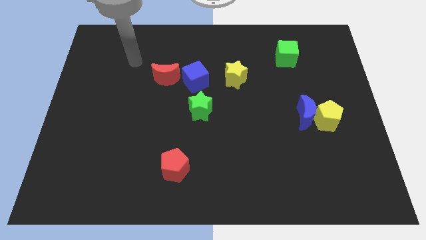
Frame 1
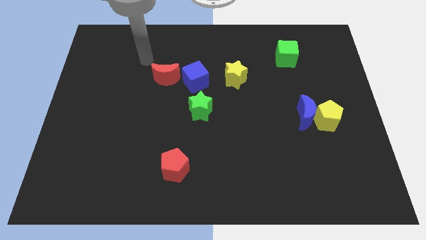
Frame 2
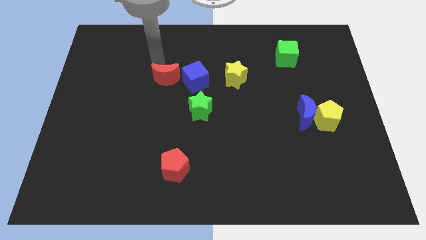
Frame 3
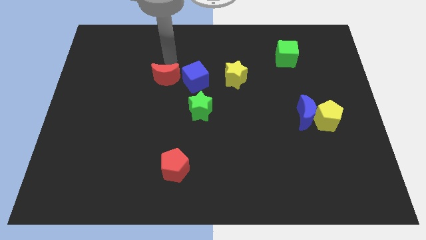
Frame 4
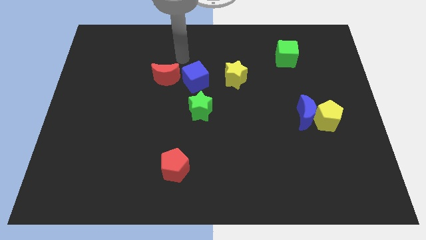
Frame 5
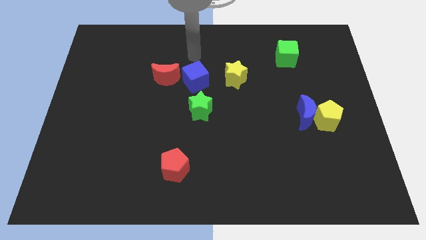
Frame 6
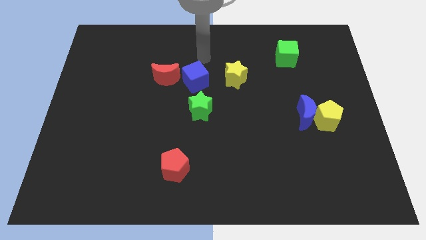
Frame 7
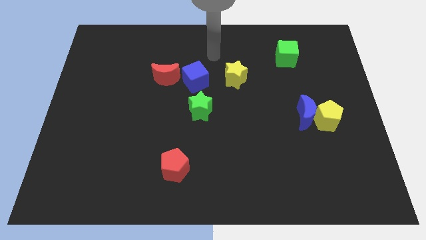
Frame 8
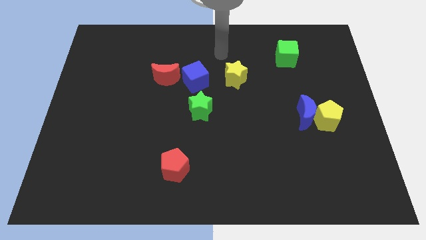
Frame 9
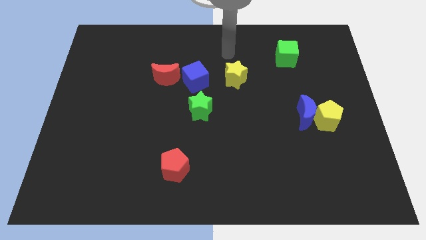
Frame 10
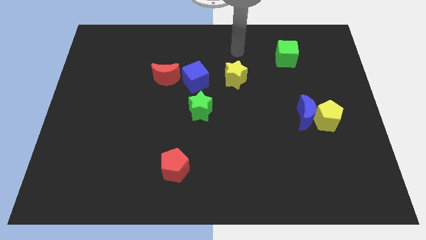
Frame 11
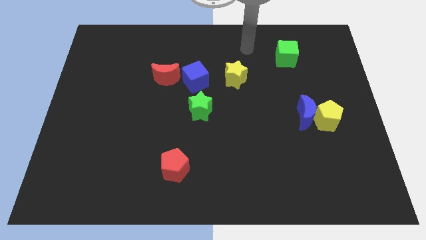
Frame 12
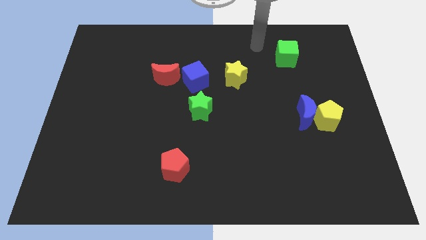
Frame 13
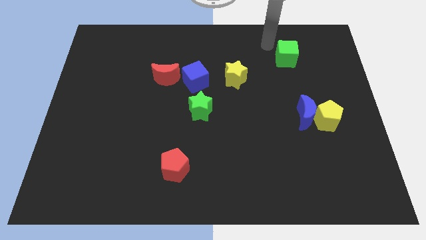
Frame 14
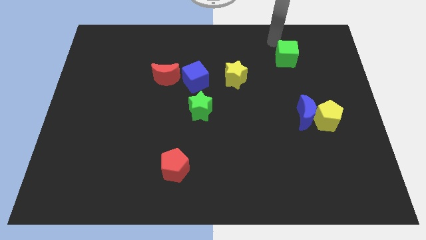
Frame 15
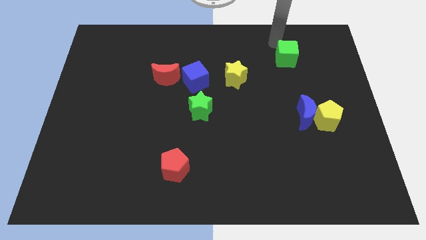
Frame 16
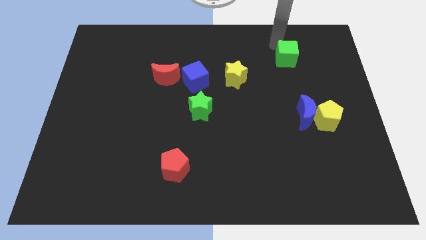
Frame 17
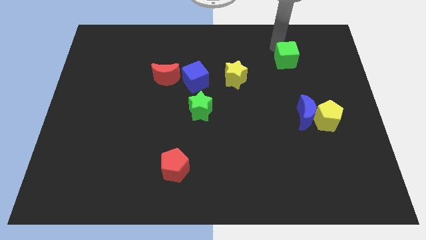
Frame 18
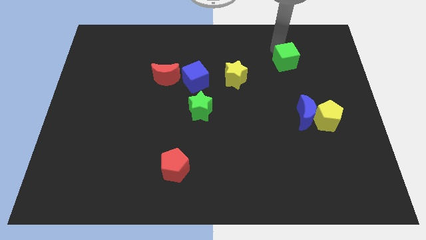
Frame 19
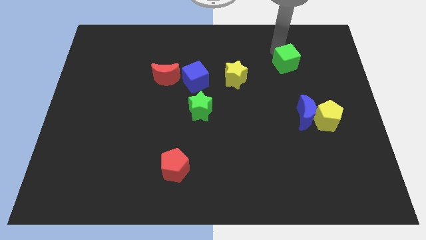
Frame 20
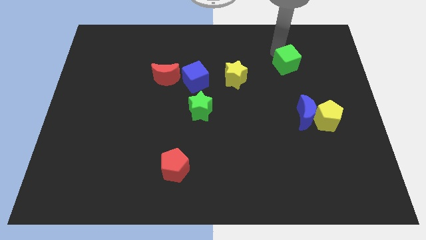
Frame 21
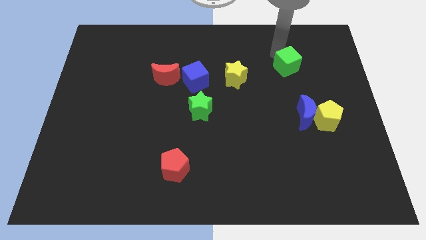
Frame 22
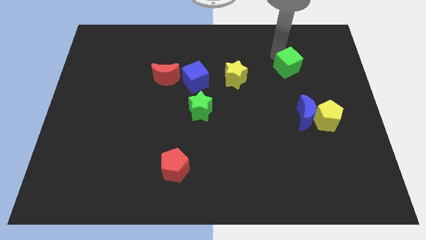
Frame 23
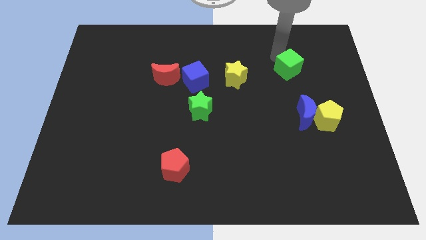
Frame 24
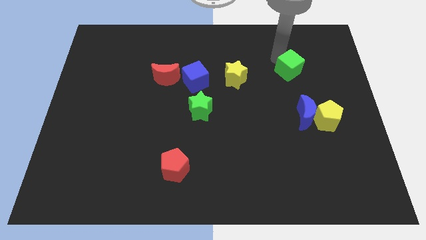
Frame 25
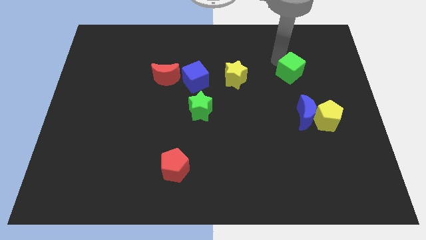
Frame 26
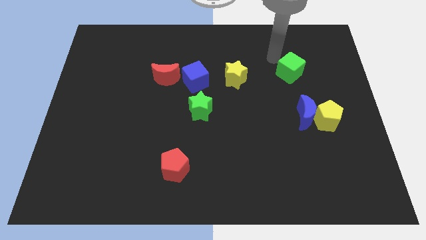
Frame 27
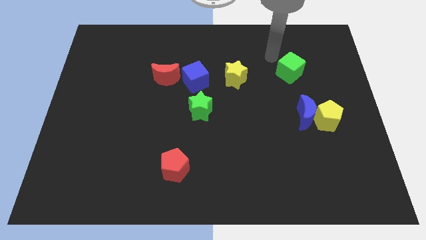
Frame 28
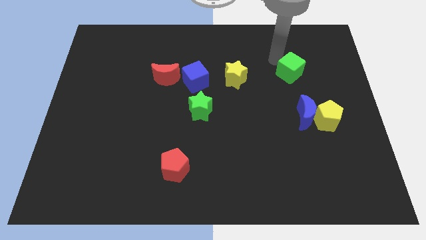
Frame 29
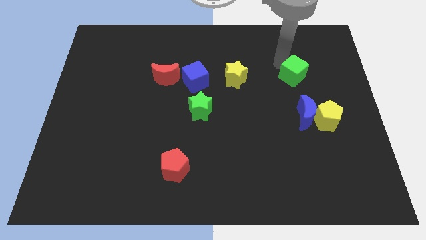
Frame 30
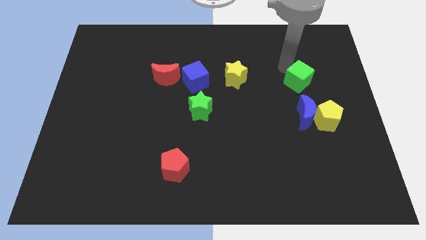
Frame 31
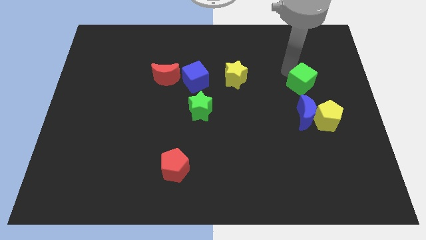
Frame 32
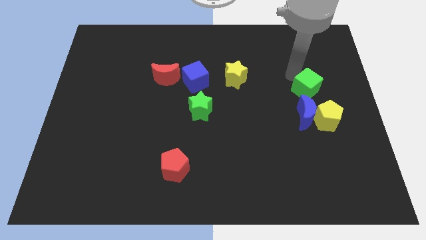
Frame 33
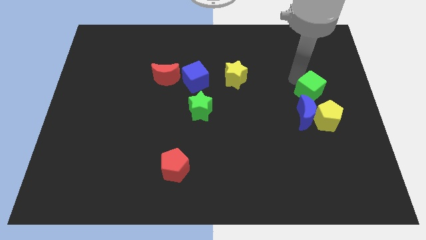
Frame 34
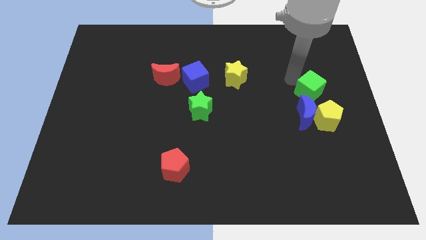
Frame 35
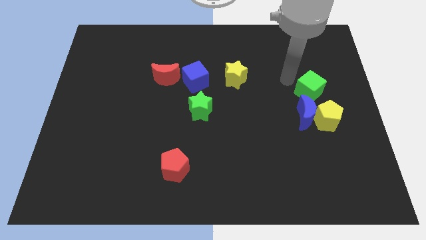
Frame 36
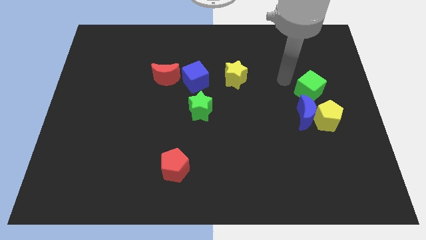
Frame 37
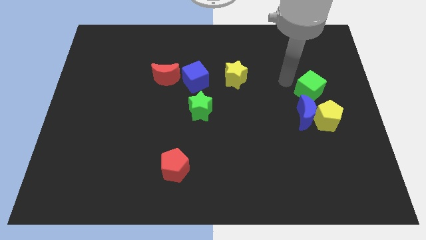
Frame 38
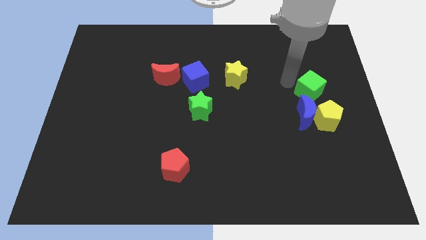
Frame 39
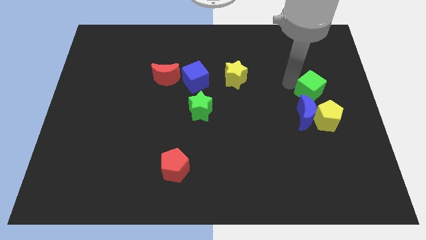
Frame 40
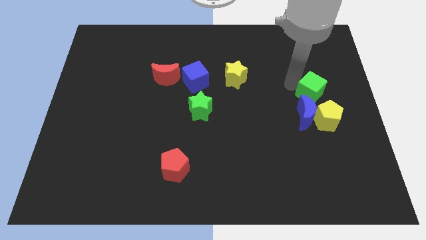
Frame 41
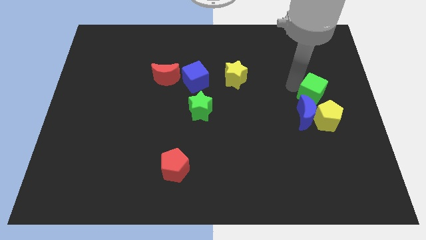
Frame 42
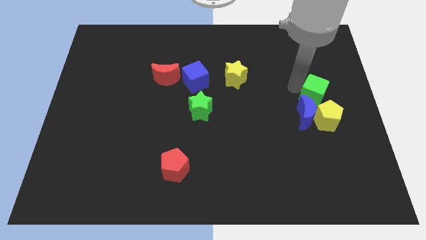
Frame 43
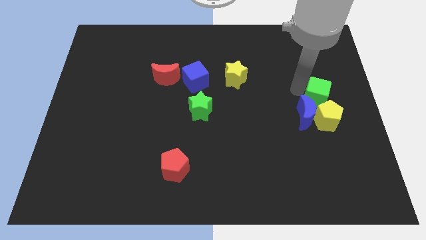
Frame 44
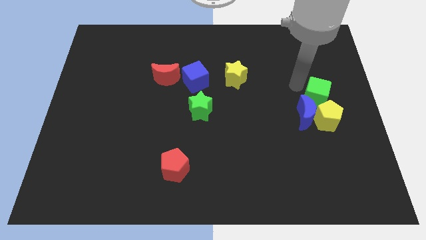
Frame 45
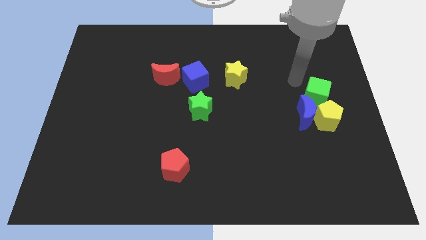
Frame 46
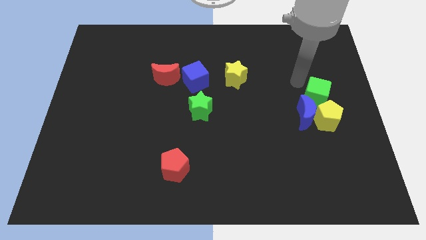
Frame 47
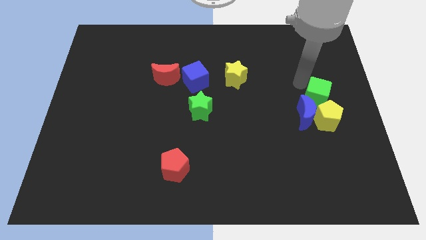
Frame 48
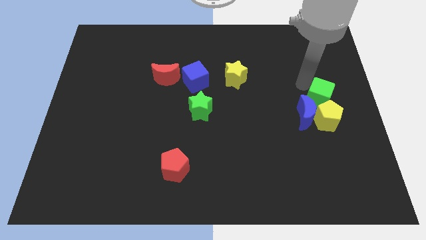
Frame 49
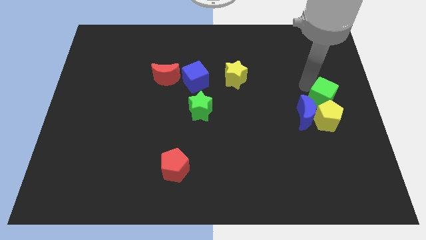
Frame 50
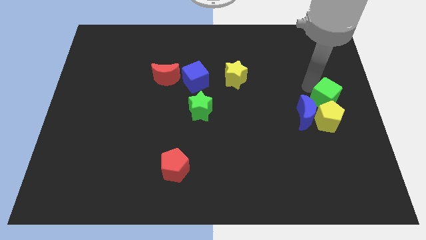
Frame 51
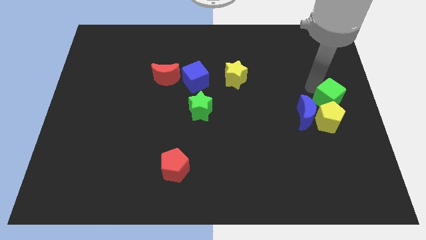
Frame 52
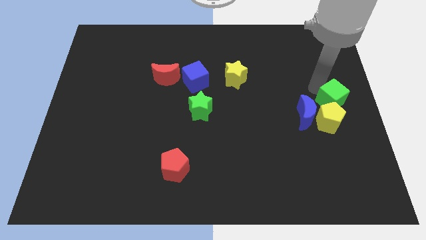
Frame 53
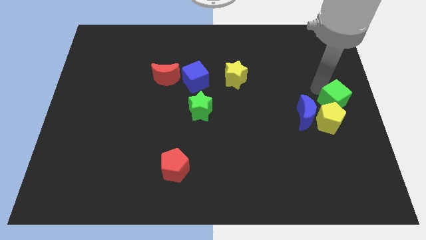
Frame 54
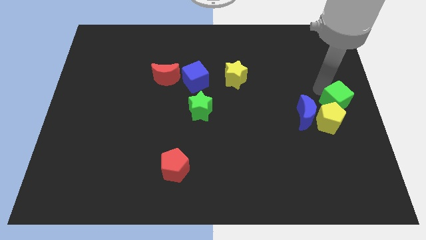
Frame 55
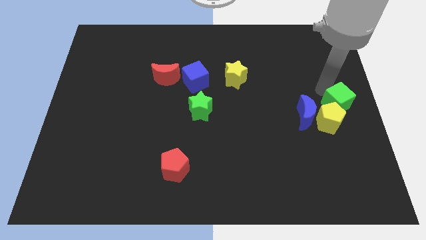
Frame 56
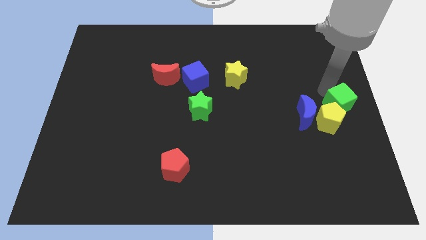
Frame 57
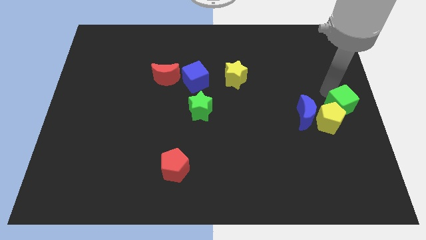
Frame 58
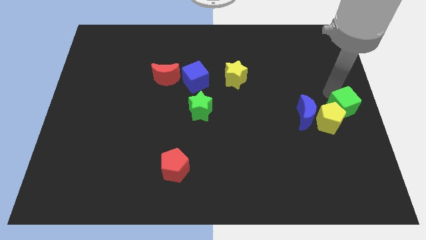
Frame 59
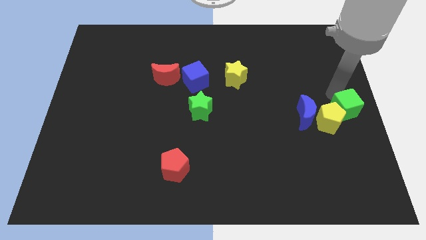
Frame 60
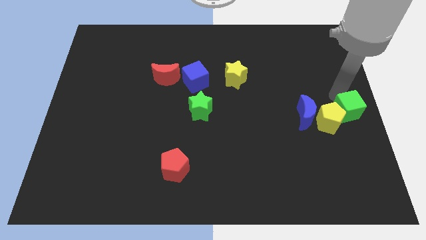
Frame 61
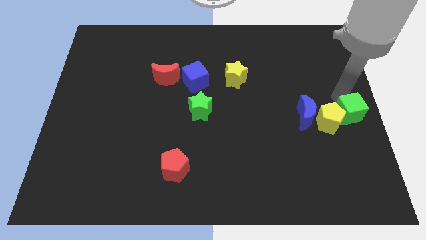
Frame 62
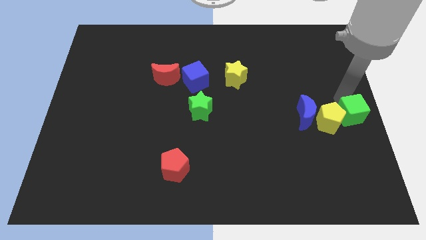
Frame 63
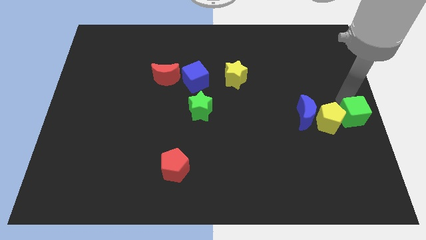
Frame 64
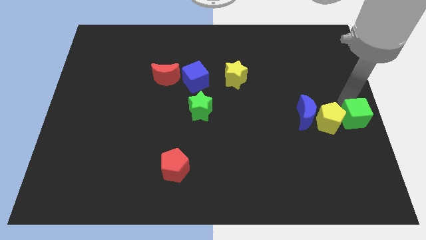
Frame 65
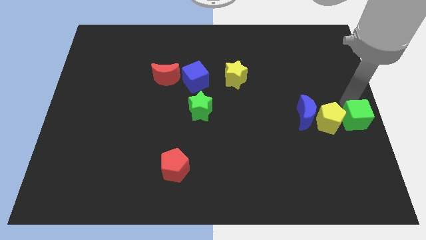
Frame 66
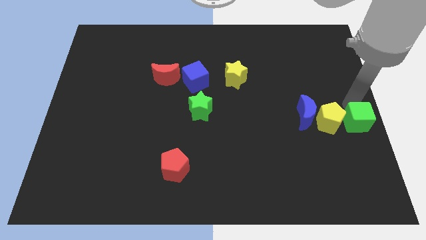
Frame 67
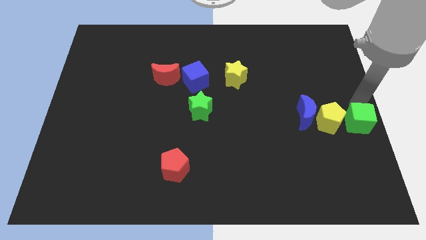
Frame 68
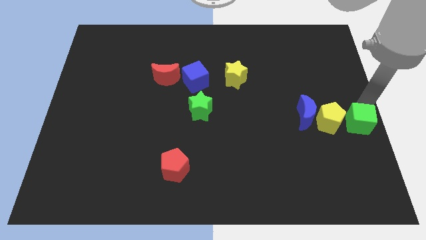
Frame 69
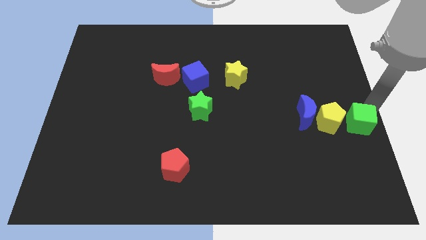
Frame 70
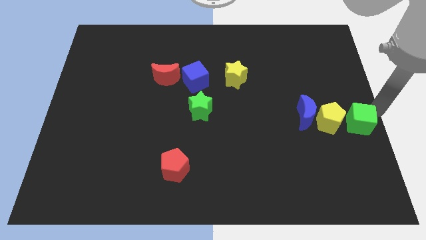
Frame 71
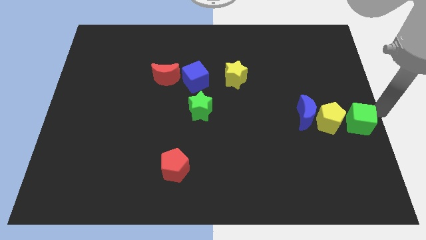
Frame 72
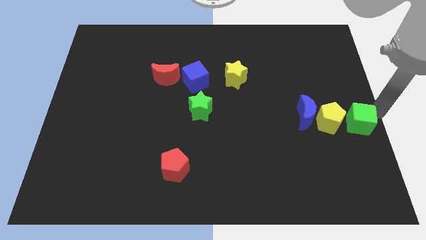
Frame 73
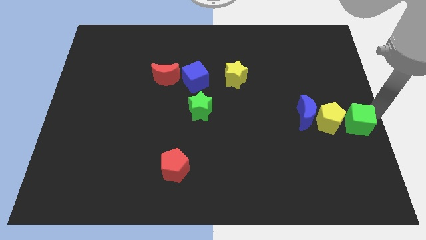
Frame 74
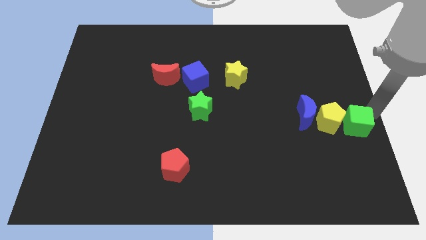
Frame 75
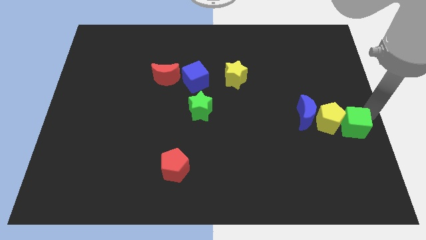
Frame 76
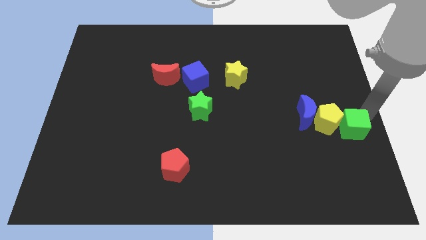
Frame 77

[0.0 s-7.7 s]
push the green cube to the bottom right side of the blue moon
